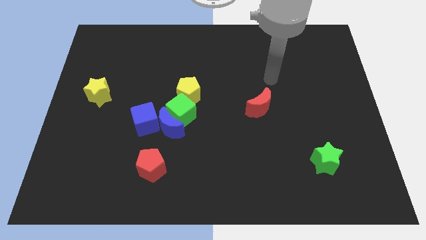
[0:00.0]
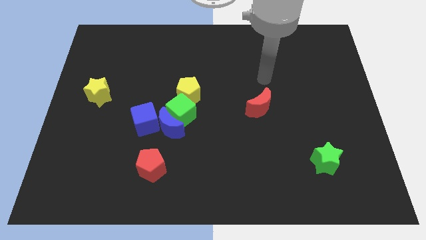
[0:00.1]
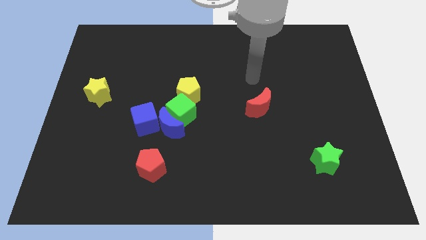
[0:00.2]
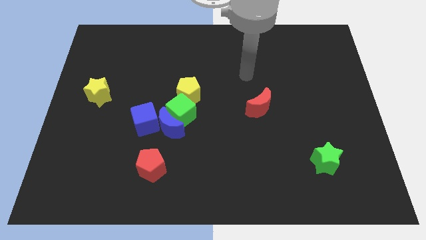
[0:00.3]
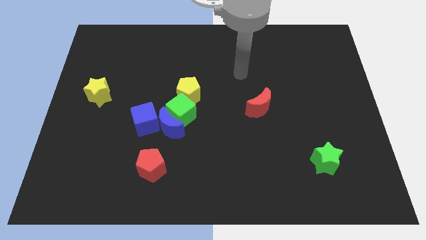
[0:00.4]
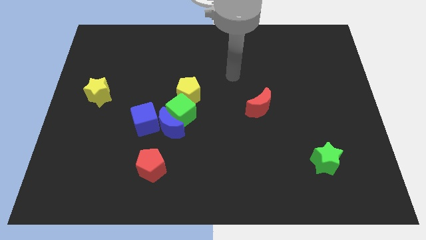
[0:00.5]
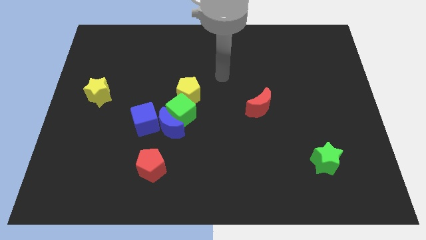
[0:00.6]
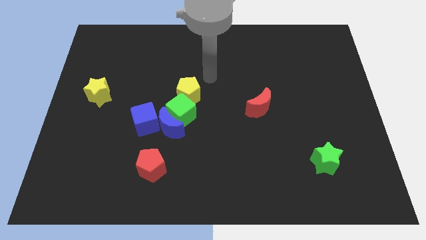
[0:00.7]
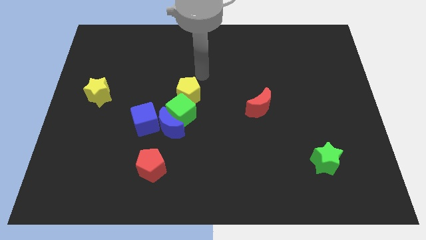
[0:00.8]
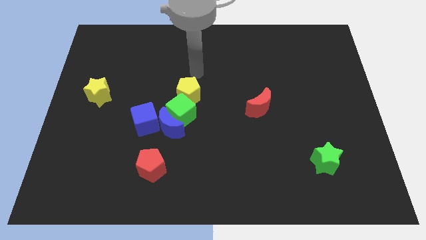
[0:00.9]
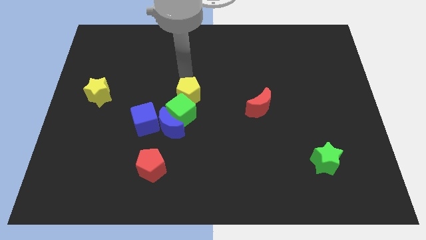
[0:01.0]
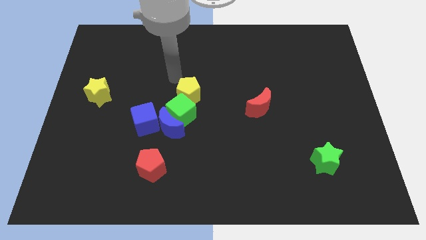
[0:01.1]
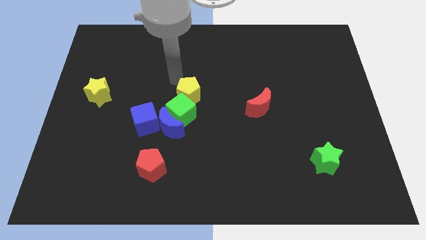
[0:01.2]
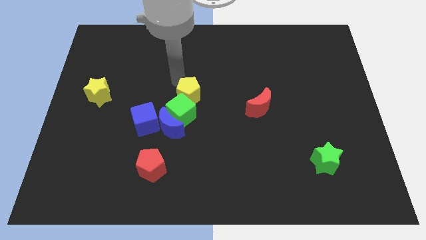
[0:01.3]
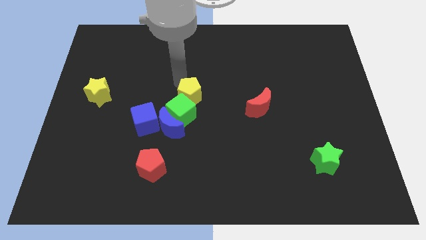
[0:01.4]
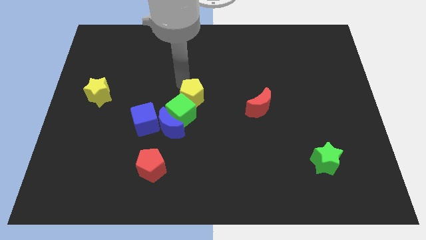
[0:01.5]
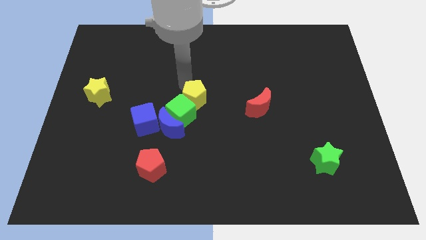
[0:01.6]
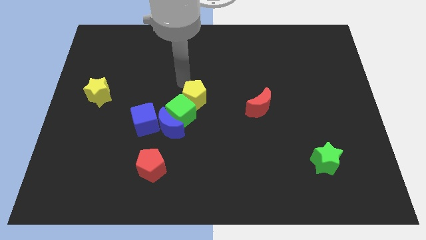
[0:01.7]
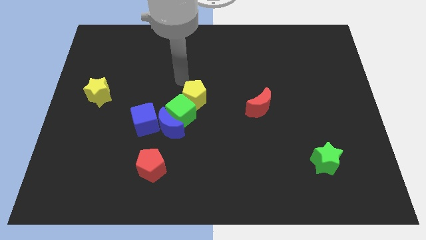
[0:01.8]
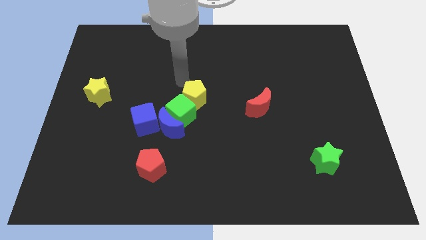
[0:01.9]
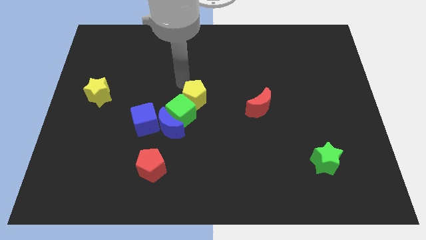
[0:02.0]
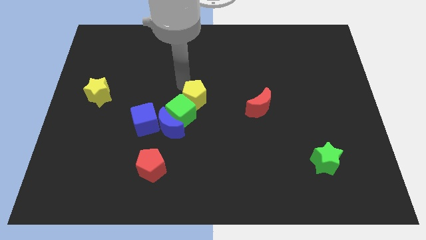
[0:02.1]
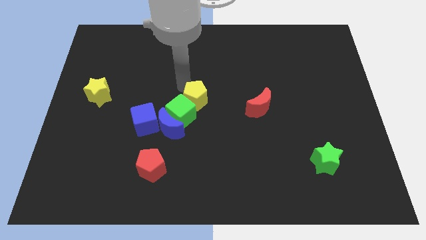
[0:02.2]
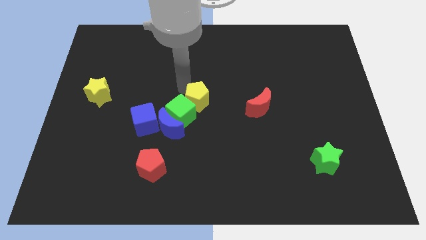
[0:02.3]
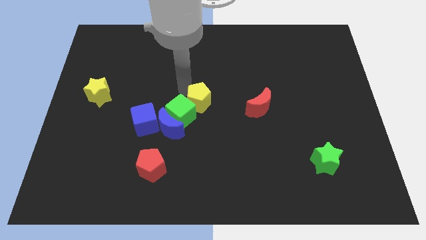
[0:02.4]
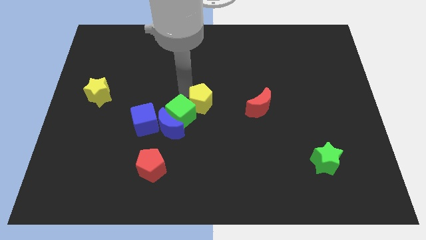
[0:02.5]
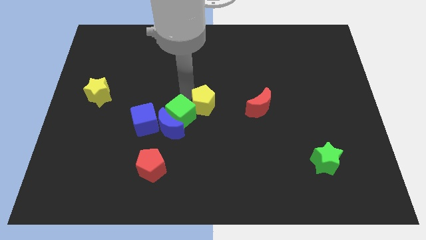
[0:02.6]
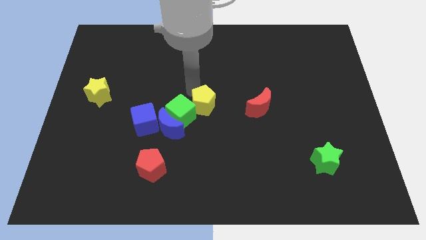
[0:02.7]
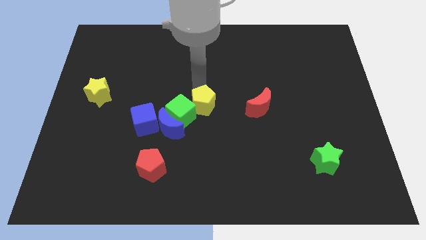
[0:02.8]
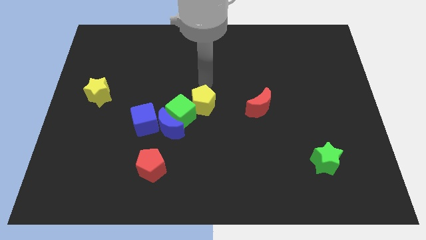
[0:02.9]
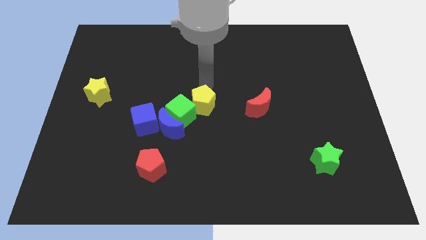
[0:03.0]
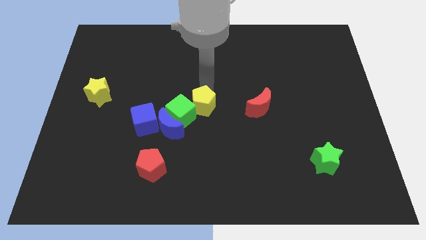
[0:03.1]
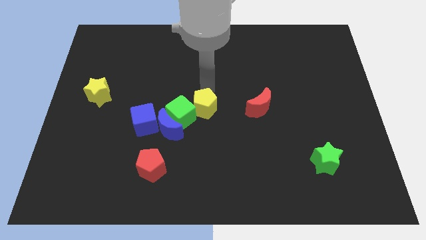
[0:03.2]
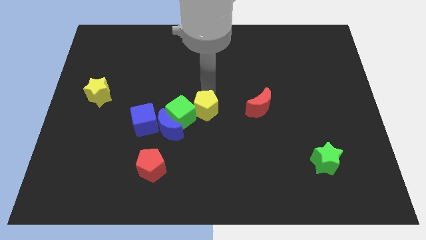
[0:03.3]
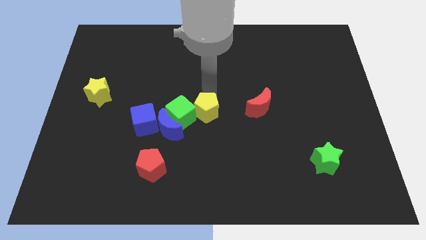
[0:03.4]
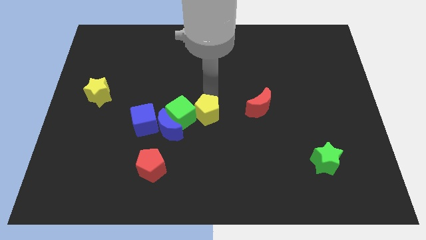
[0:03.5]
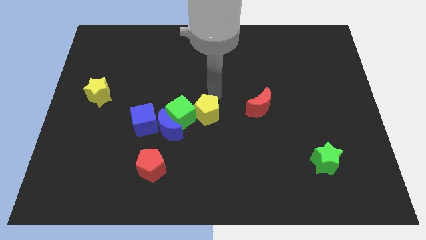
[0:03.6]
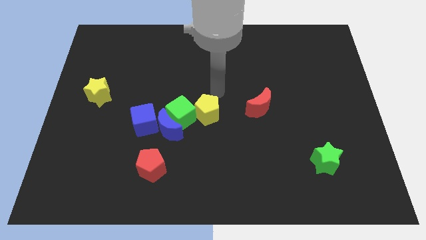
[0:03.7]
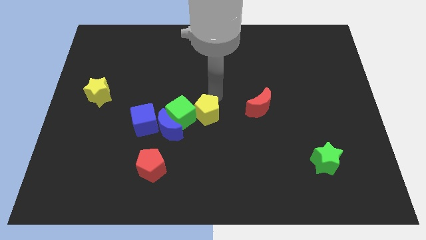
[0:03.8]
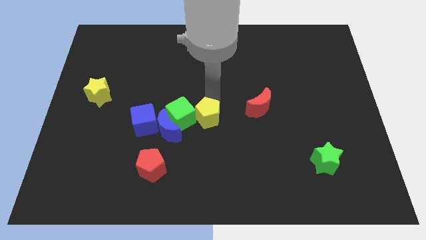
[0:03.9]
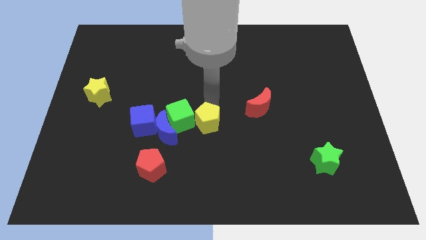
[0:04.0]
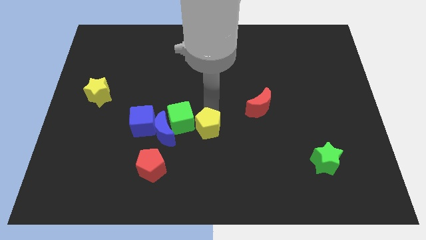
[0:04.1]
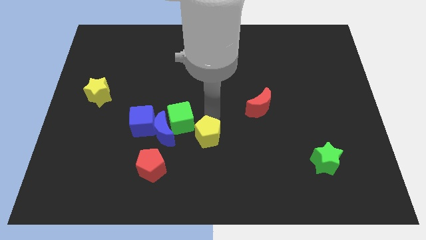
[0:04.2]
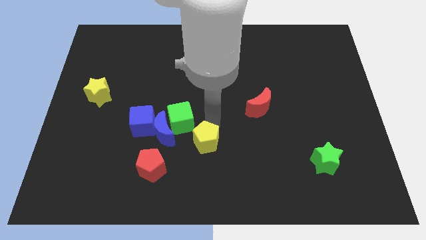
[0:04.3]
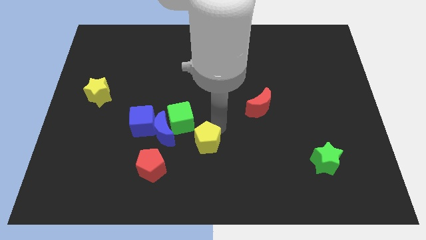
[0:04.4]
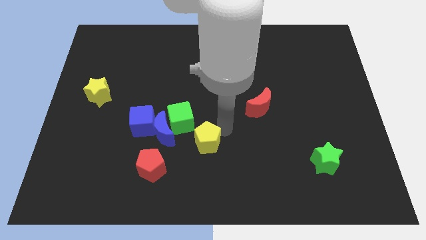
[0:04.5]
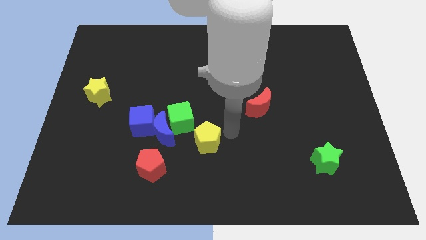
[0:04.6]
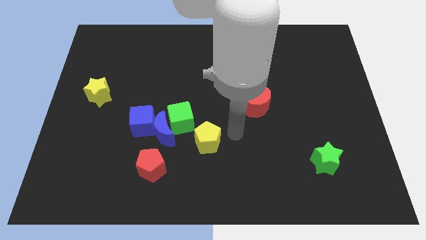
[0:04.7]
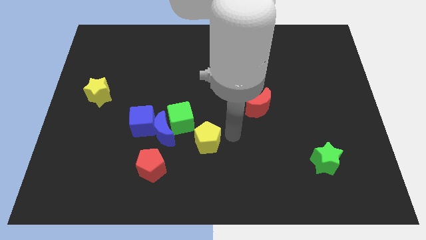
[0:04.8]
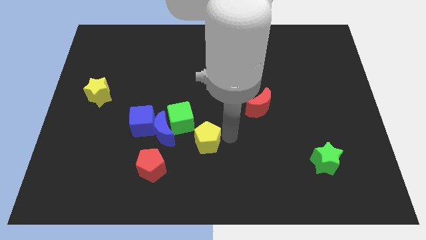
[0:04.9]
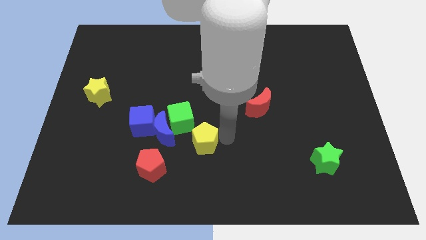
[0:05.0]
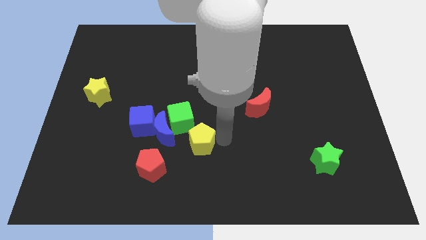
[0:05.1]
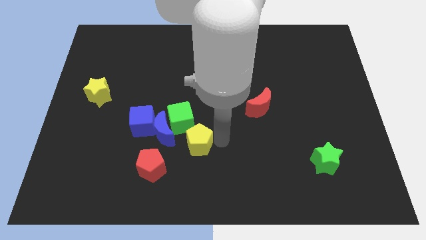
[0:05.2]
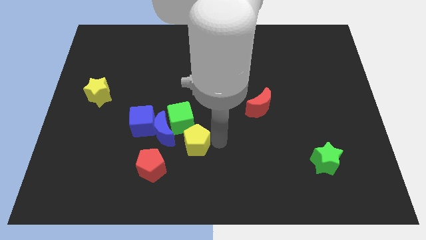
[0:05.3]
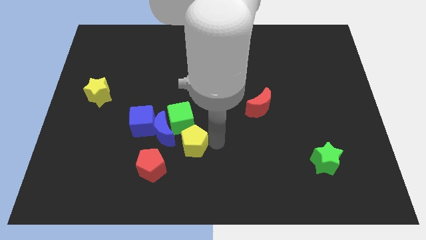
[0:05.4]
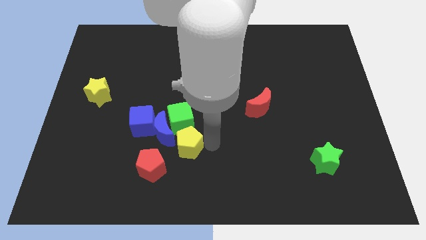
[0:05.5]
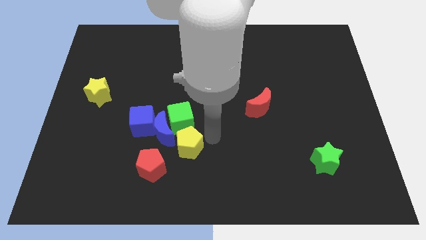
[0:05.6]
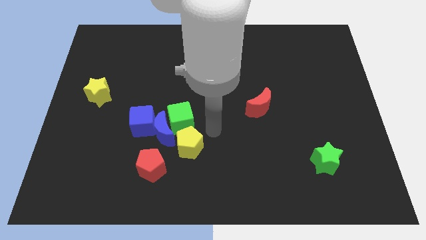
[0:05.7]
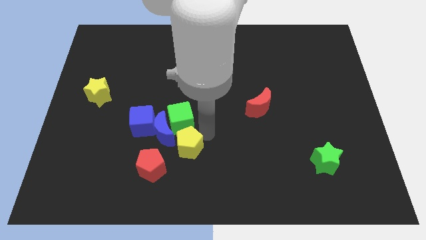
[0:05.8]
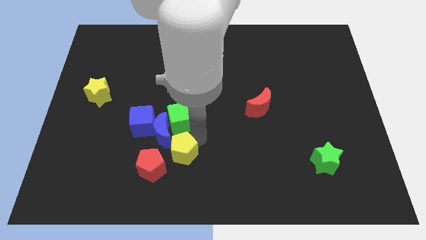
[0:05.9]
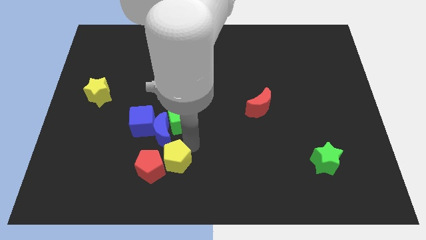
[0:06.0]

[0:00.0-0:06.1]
put the yellow pentagon to the red pentagon

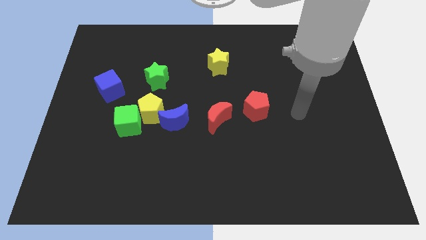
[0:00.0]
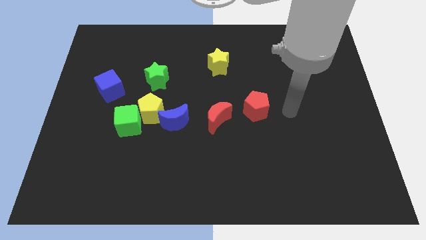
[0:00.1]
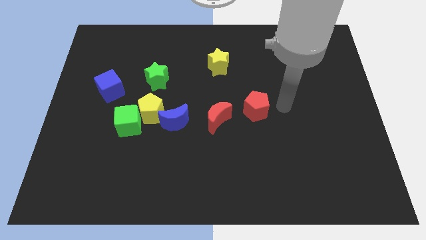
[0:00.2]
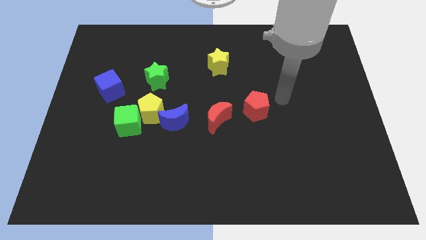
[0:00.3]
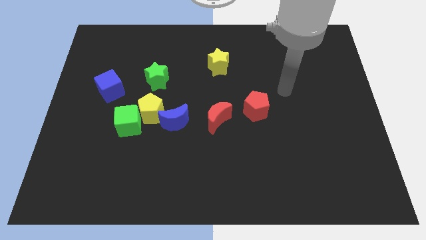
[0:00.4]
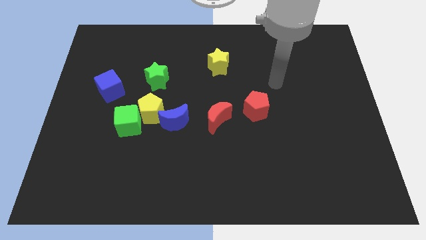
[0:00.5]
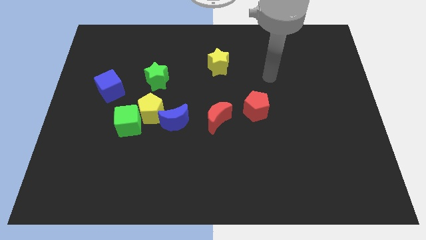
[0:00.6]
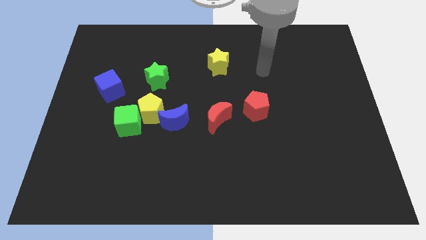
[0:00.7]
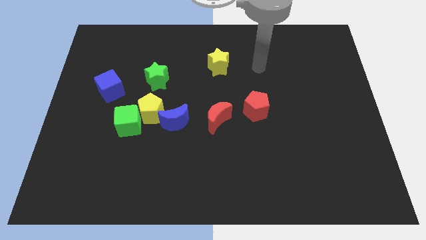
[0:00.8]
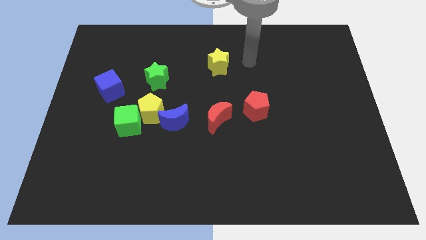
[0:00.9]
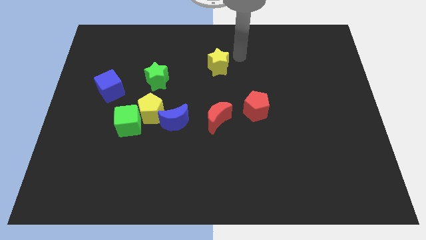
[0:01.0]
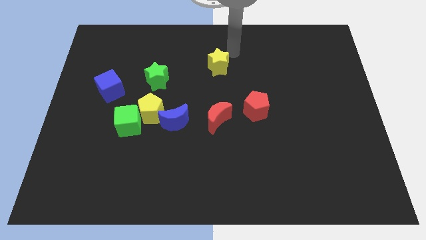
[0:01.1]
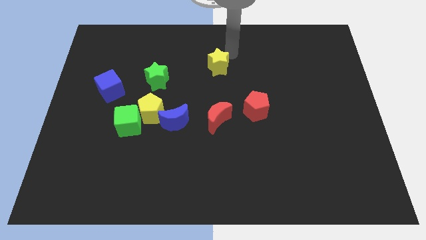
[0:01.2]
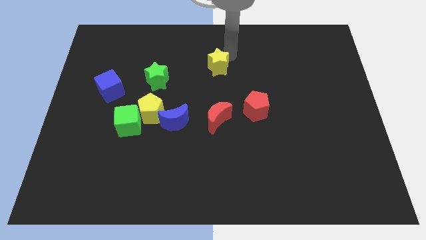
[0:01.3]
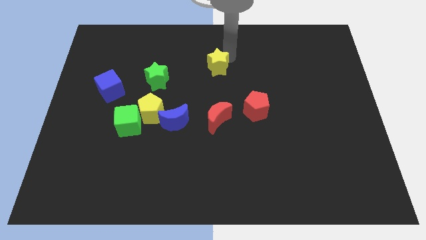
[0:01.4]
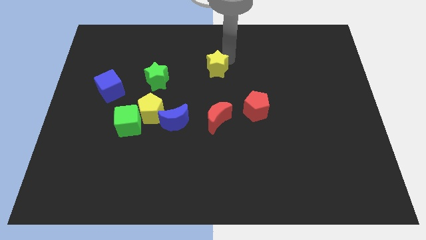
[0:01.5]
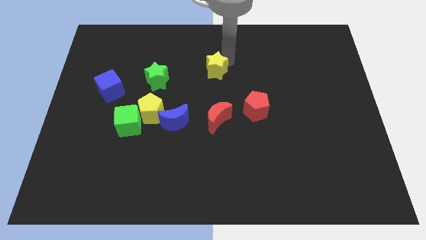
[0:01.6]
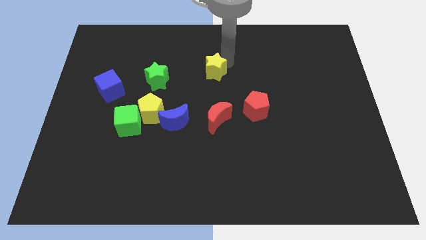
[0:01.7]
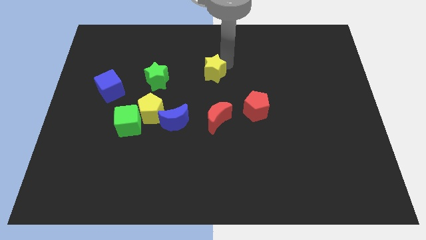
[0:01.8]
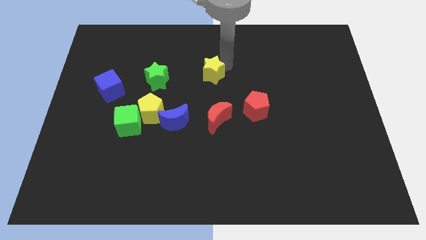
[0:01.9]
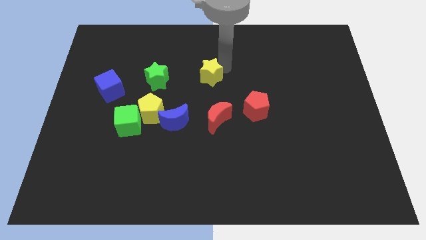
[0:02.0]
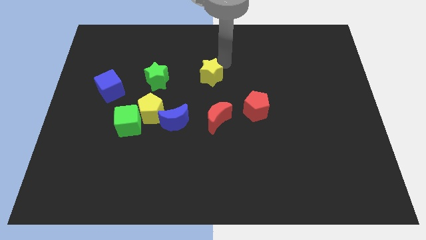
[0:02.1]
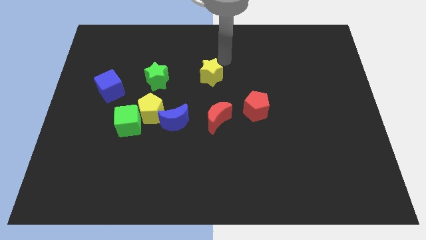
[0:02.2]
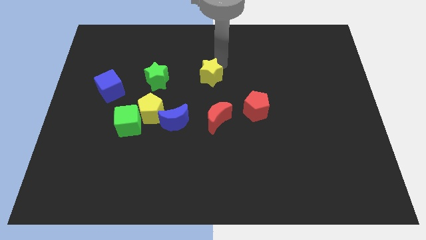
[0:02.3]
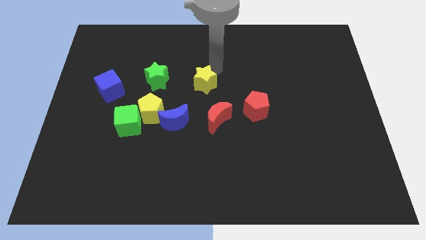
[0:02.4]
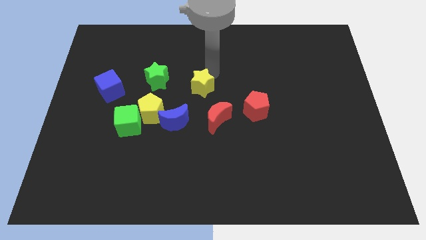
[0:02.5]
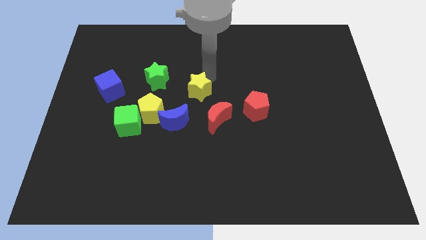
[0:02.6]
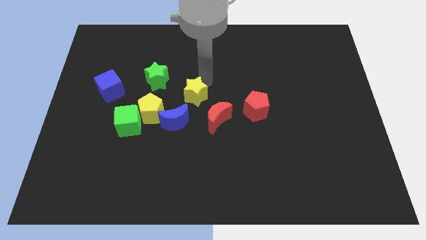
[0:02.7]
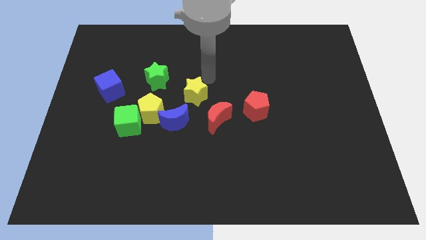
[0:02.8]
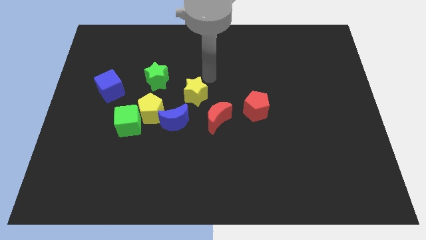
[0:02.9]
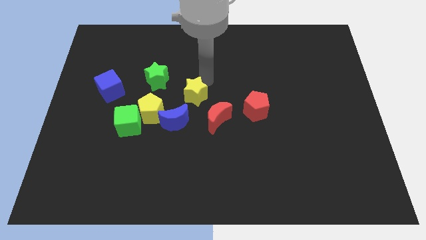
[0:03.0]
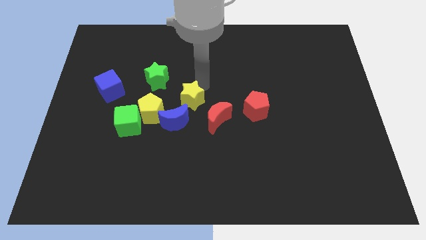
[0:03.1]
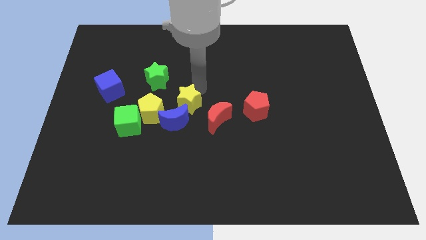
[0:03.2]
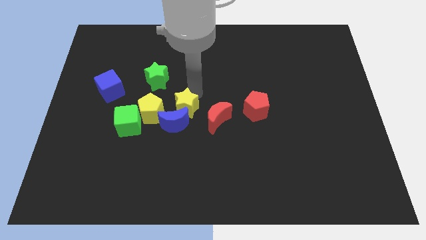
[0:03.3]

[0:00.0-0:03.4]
put the yellow star to the blue moon
